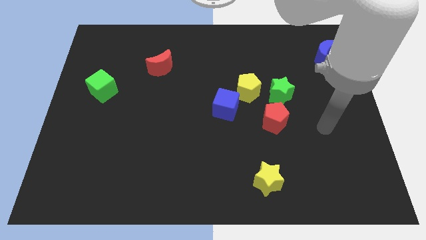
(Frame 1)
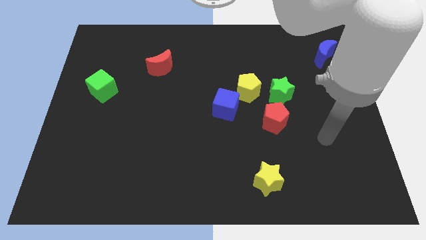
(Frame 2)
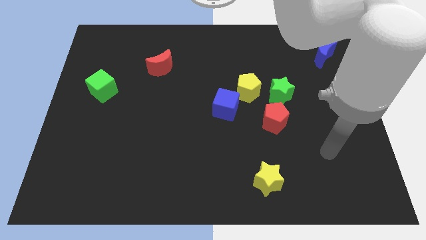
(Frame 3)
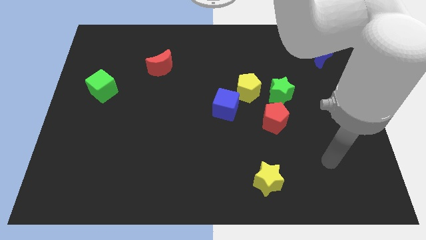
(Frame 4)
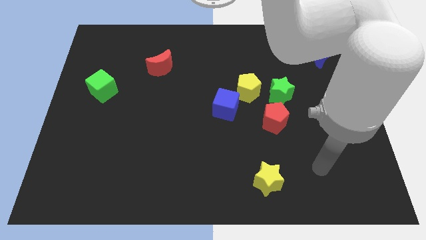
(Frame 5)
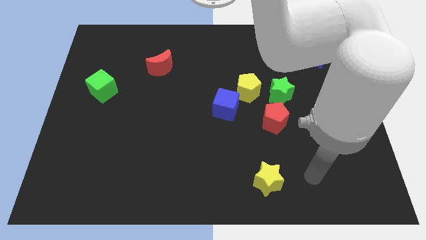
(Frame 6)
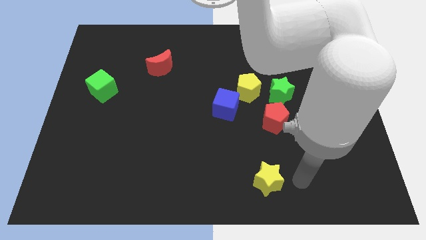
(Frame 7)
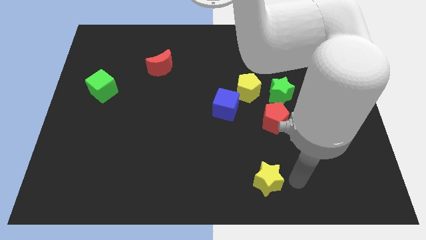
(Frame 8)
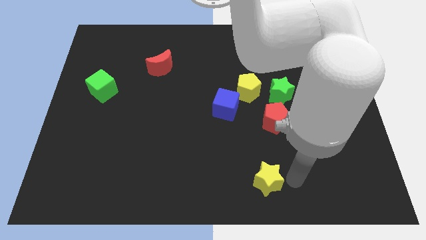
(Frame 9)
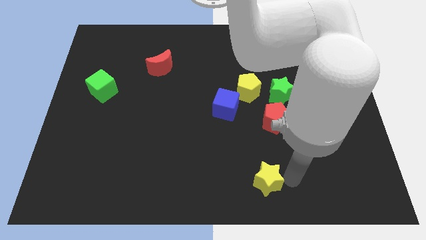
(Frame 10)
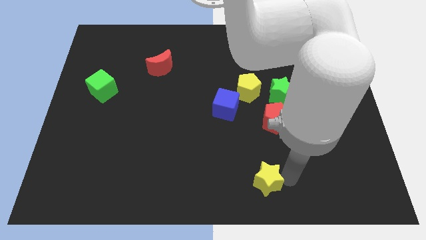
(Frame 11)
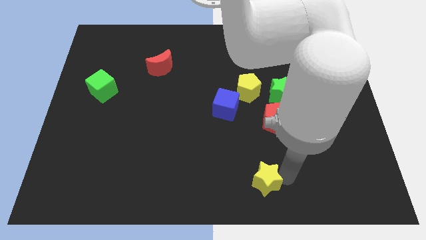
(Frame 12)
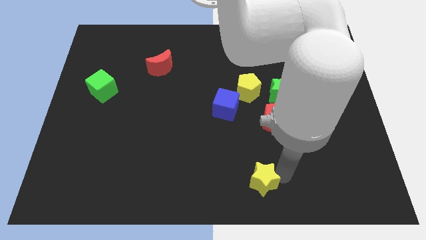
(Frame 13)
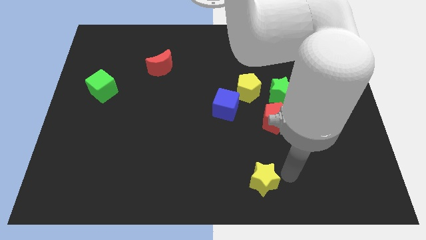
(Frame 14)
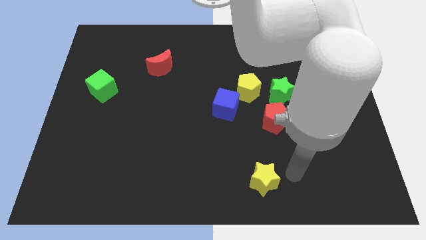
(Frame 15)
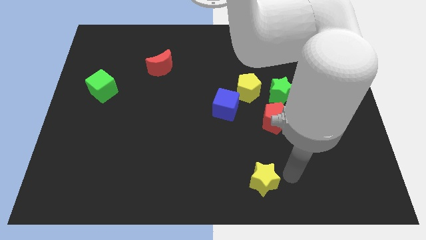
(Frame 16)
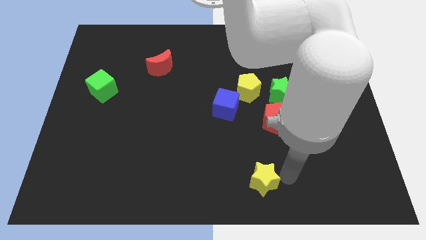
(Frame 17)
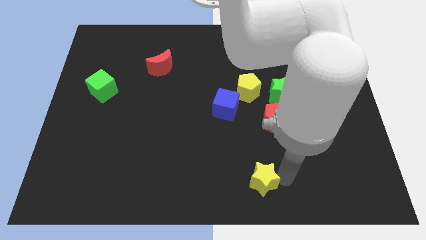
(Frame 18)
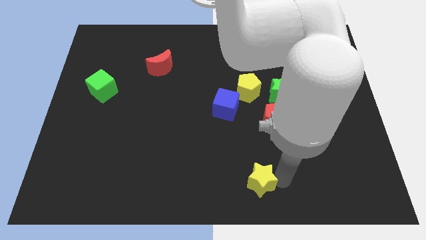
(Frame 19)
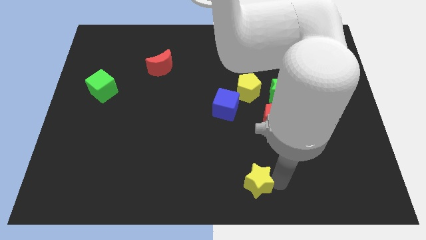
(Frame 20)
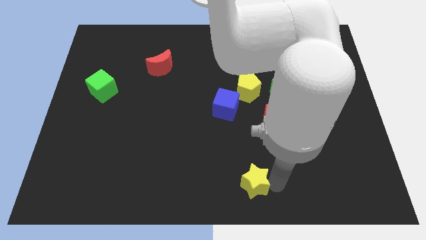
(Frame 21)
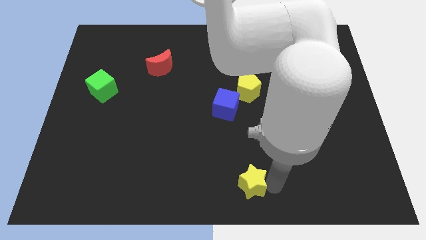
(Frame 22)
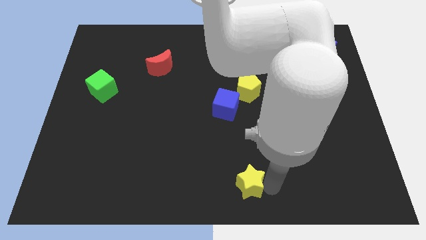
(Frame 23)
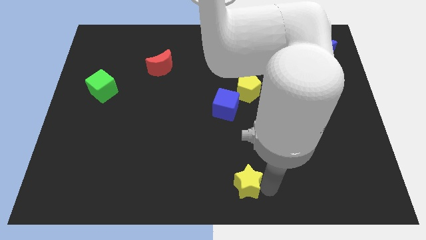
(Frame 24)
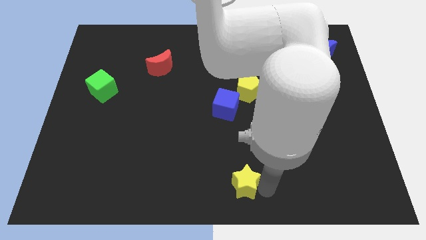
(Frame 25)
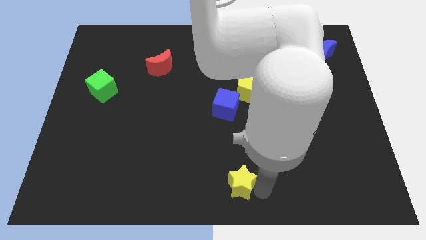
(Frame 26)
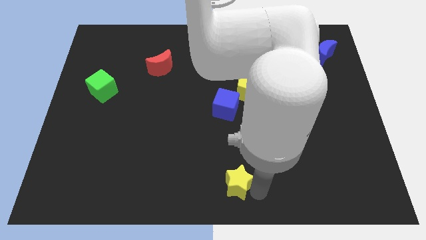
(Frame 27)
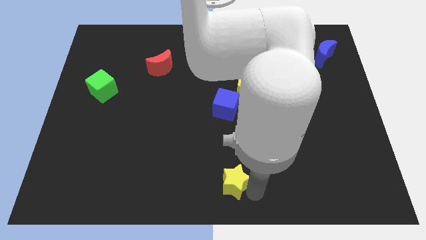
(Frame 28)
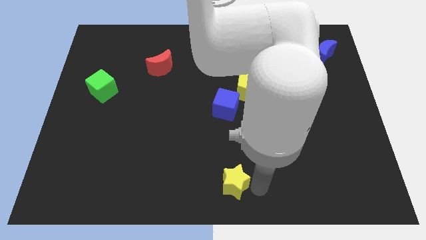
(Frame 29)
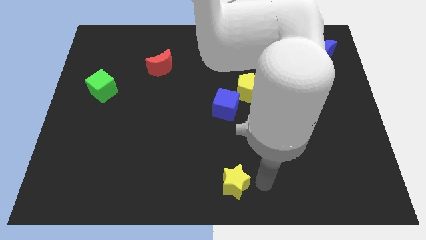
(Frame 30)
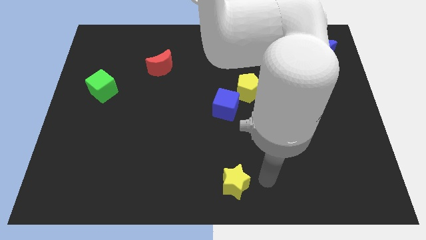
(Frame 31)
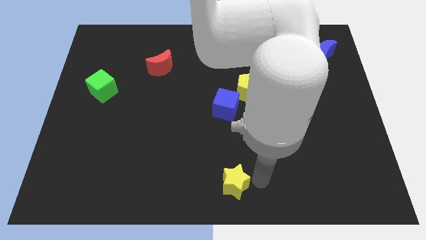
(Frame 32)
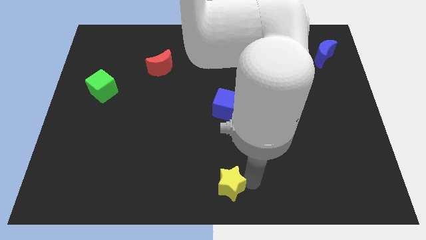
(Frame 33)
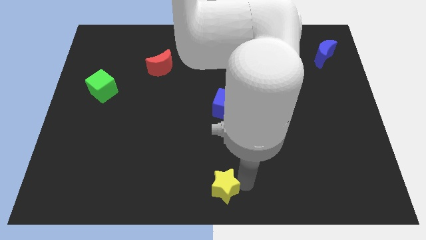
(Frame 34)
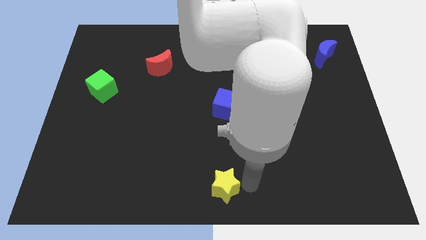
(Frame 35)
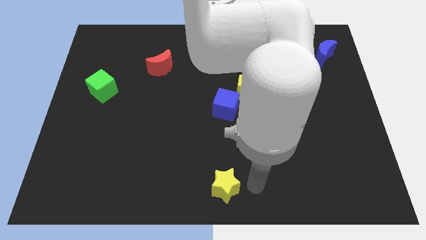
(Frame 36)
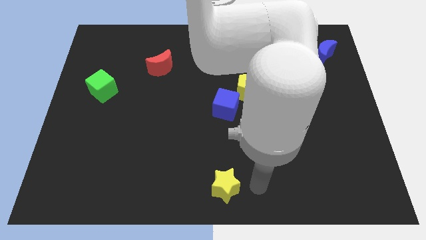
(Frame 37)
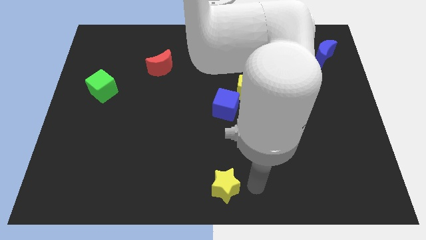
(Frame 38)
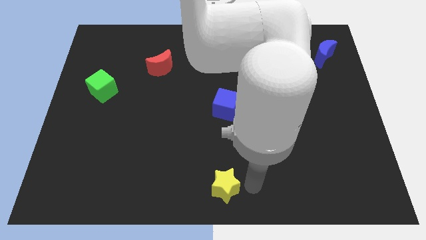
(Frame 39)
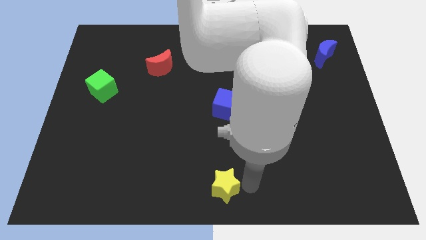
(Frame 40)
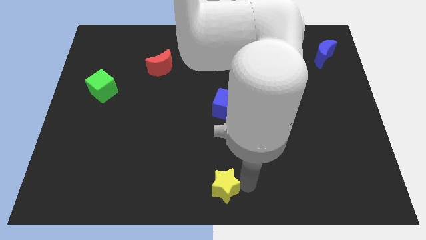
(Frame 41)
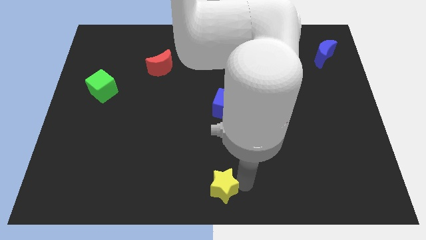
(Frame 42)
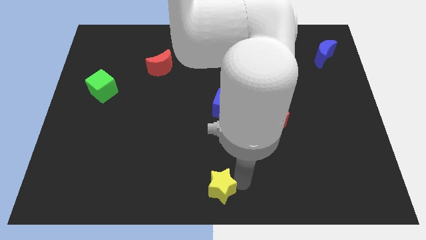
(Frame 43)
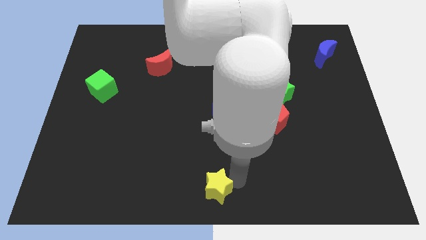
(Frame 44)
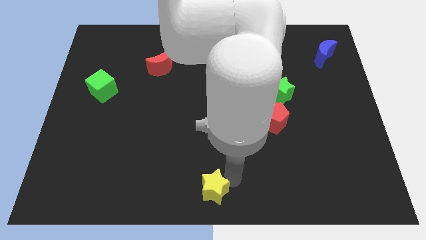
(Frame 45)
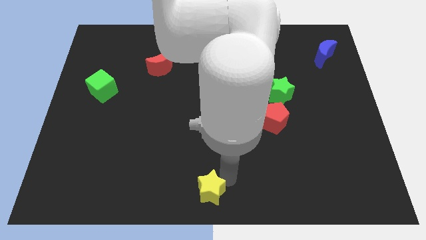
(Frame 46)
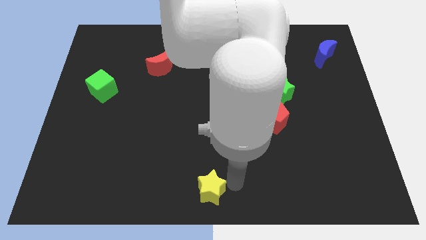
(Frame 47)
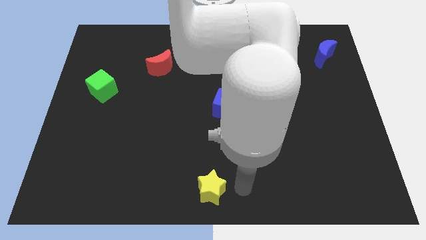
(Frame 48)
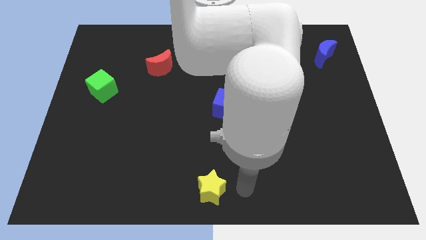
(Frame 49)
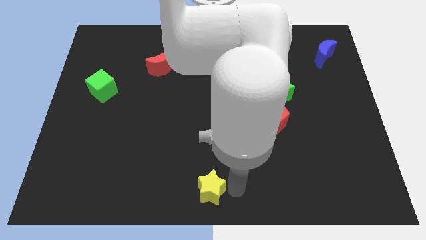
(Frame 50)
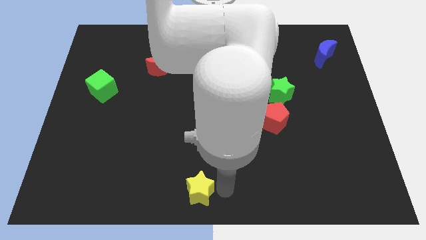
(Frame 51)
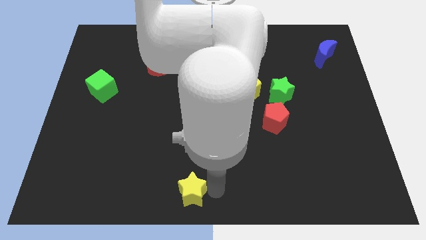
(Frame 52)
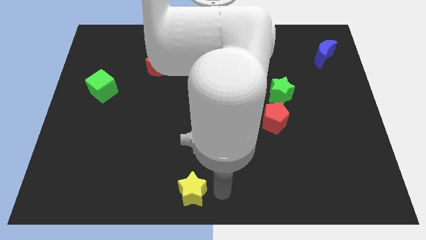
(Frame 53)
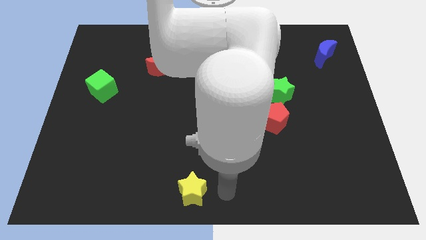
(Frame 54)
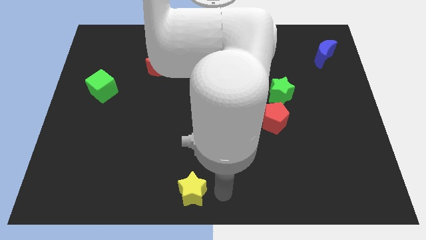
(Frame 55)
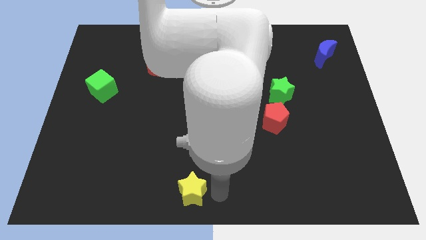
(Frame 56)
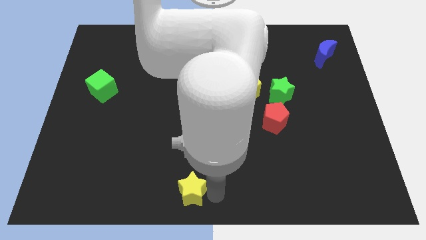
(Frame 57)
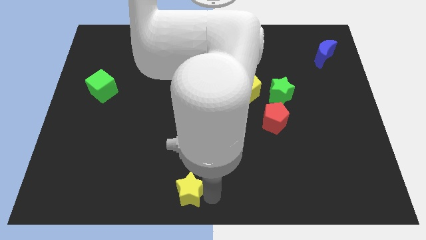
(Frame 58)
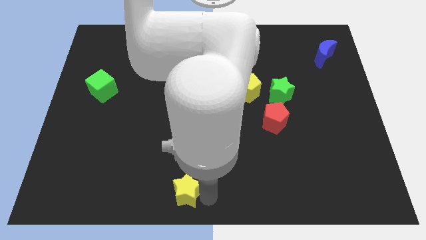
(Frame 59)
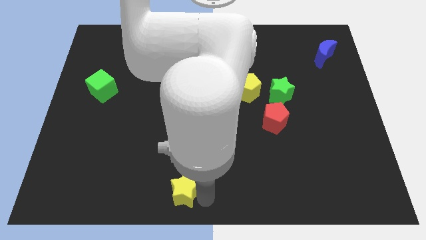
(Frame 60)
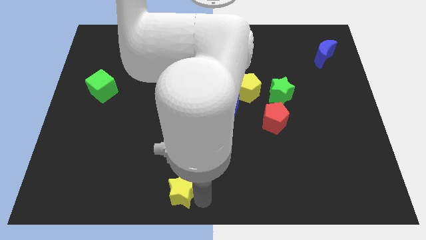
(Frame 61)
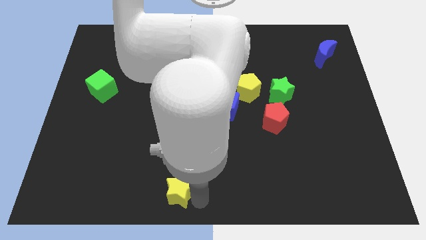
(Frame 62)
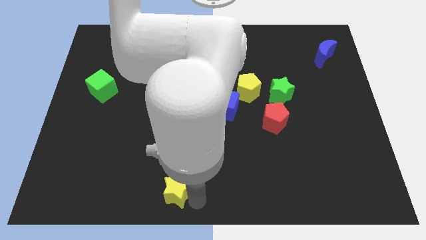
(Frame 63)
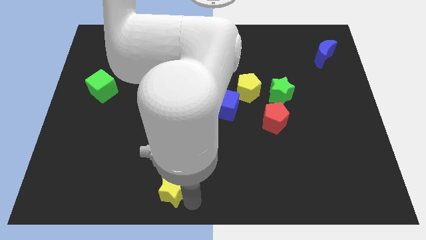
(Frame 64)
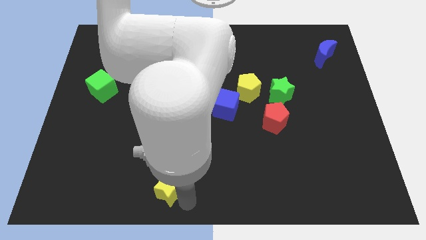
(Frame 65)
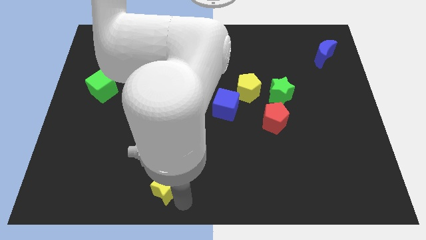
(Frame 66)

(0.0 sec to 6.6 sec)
push the yellow star to the left

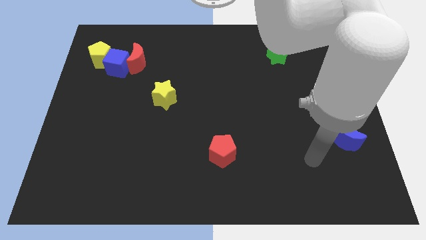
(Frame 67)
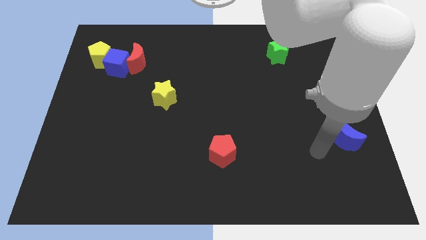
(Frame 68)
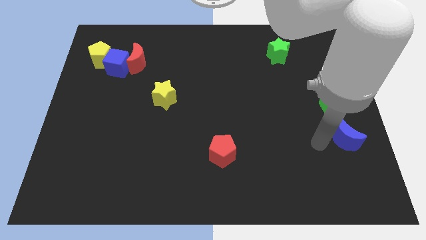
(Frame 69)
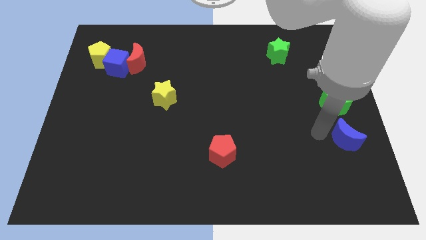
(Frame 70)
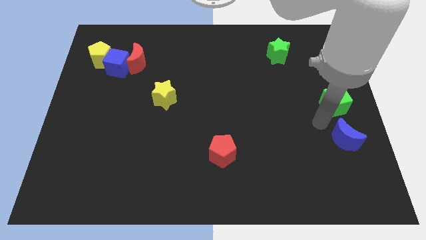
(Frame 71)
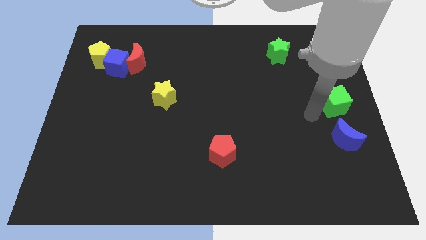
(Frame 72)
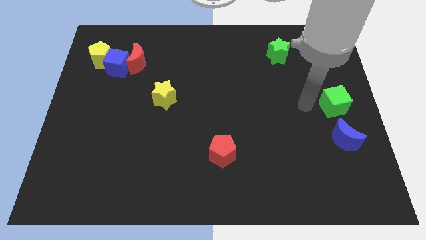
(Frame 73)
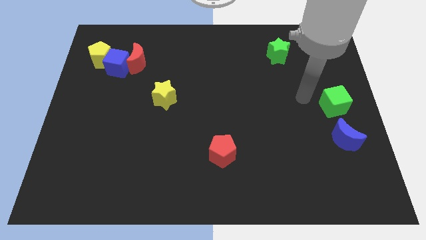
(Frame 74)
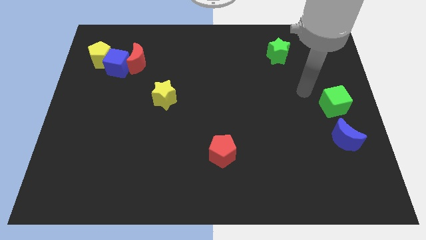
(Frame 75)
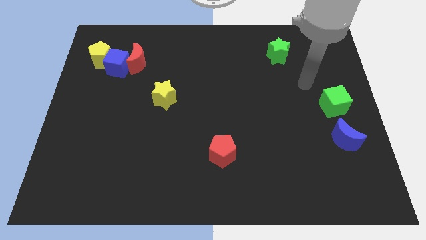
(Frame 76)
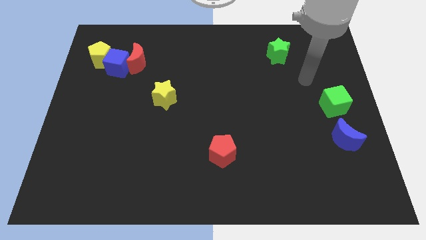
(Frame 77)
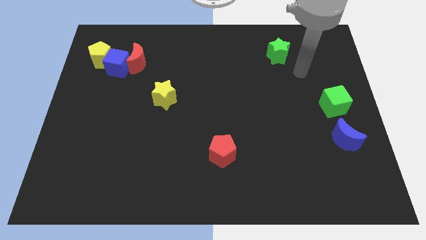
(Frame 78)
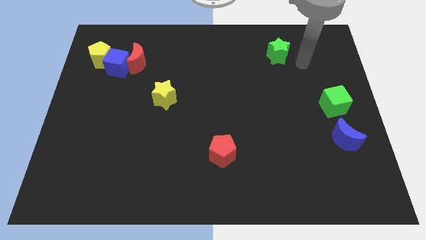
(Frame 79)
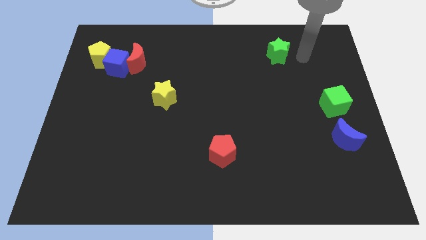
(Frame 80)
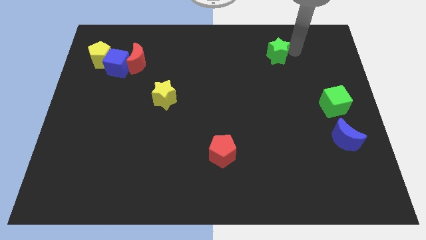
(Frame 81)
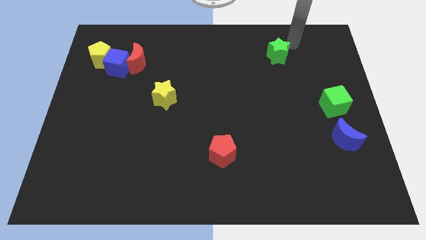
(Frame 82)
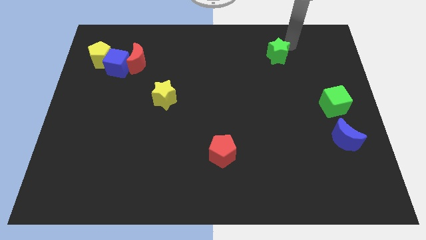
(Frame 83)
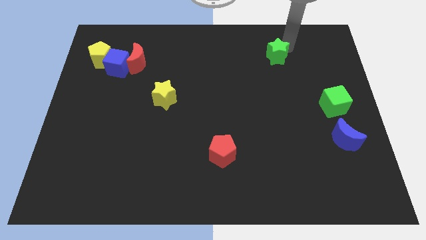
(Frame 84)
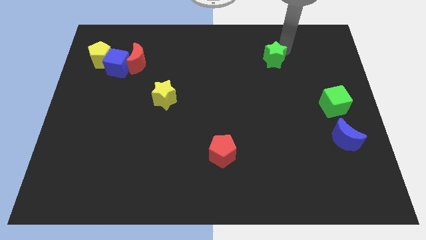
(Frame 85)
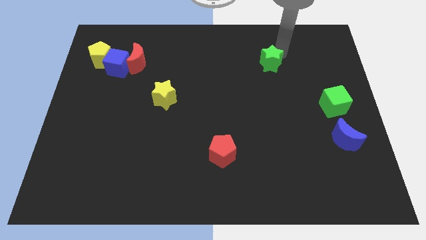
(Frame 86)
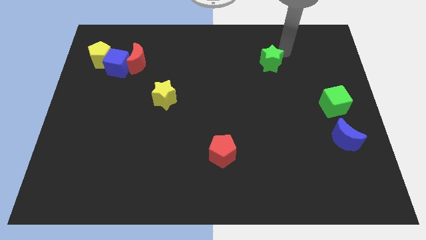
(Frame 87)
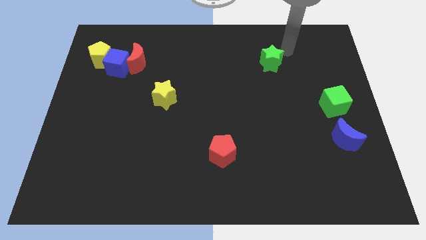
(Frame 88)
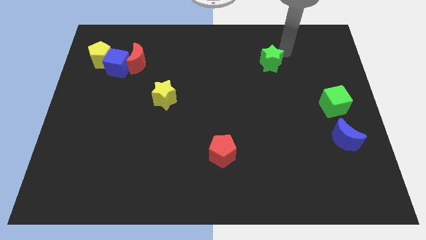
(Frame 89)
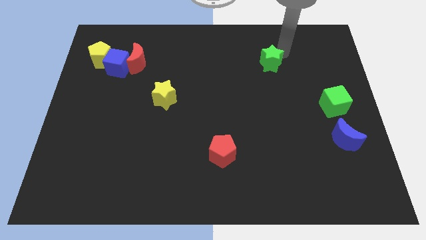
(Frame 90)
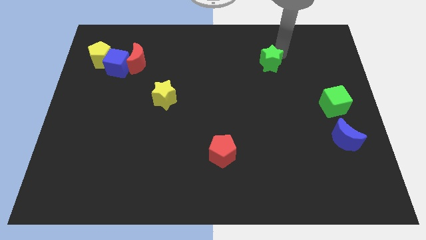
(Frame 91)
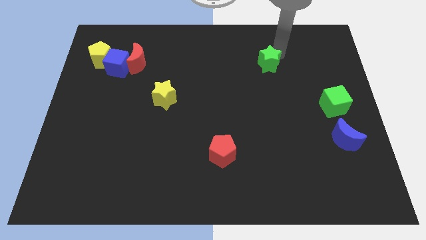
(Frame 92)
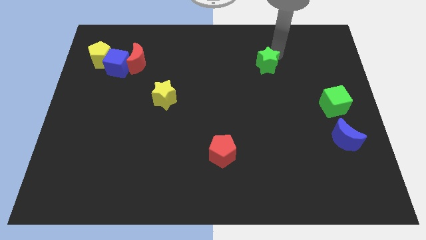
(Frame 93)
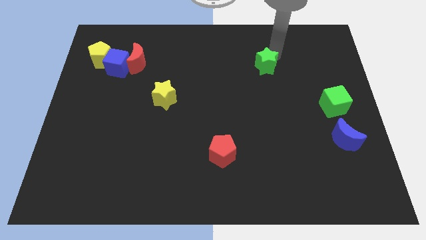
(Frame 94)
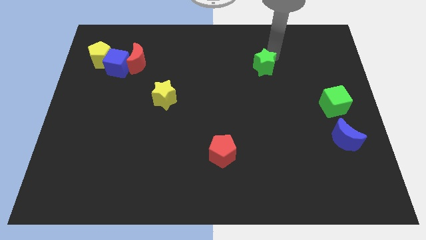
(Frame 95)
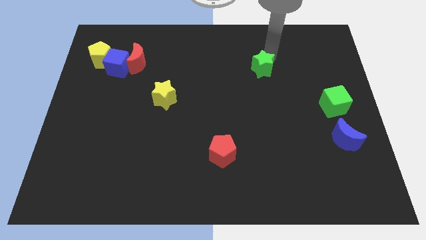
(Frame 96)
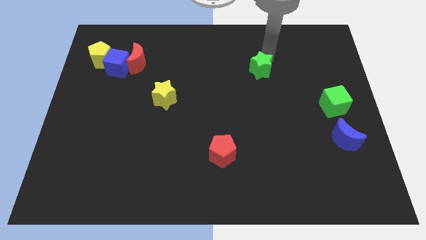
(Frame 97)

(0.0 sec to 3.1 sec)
slightly push the green star downwards and to the left diagonally
